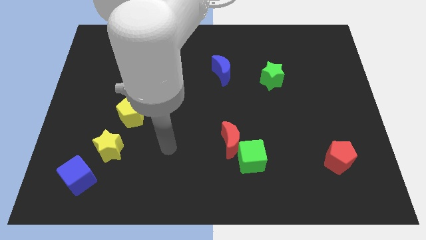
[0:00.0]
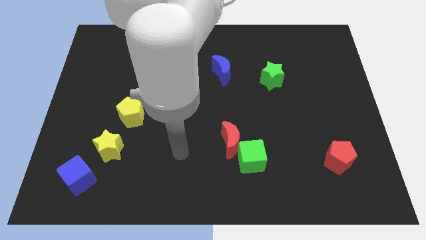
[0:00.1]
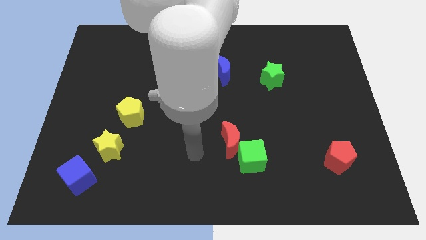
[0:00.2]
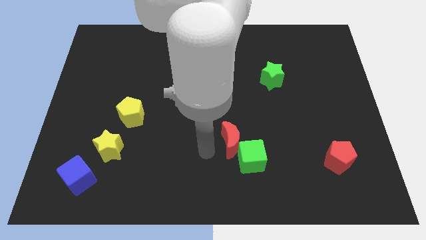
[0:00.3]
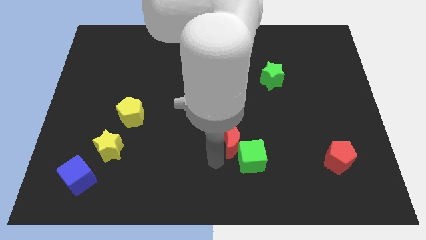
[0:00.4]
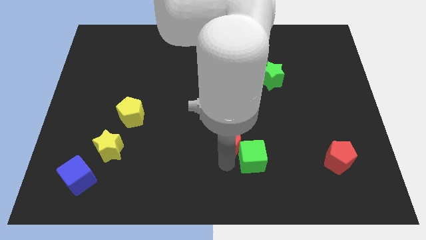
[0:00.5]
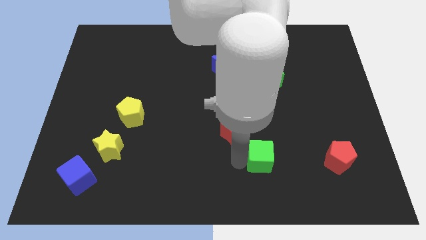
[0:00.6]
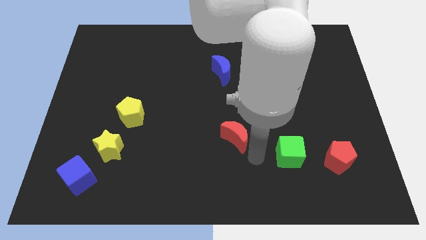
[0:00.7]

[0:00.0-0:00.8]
pull the red moon apart from the green cube

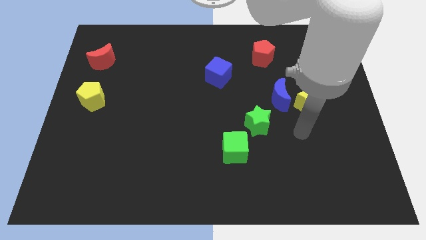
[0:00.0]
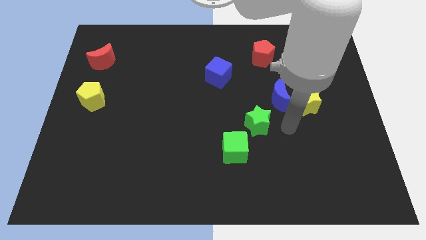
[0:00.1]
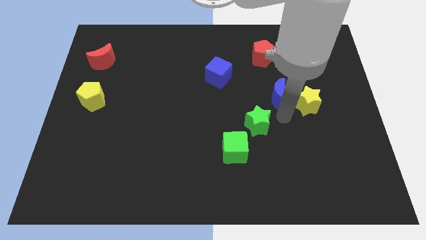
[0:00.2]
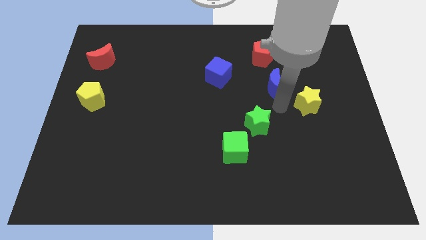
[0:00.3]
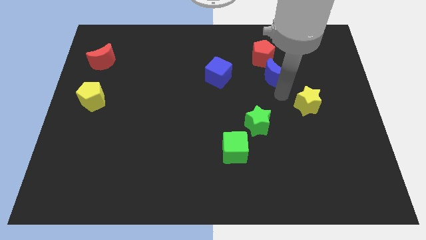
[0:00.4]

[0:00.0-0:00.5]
move the yellow star away from the blue moon

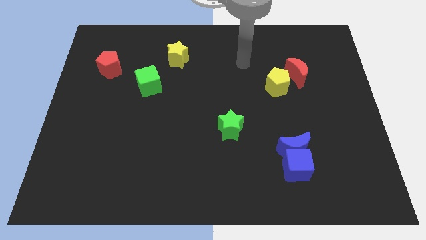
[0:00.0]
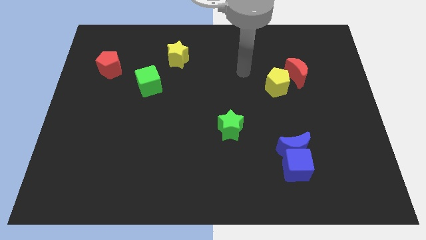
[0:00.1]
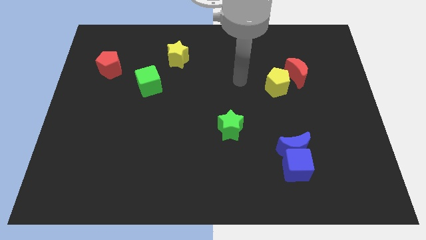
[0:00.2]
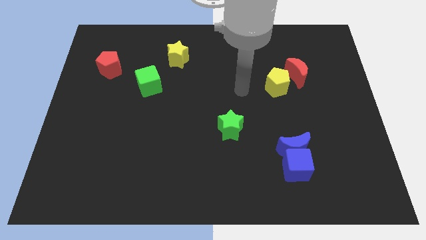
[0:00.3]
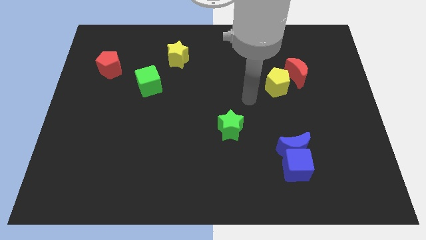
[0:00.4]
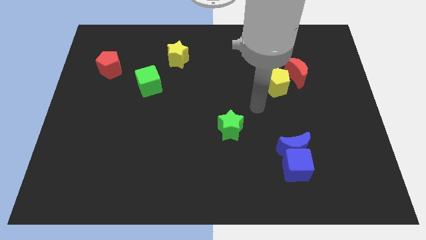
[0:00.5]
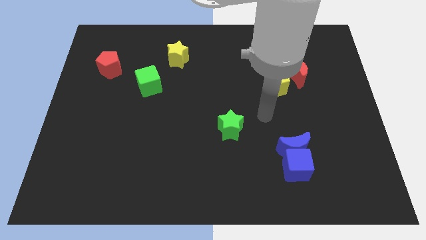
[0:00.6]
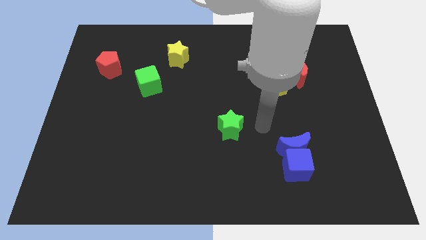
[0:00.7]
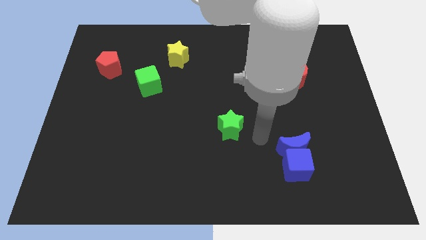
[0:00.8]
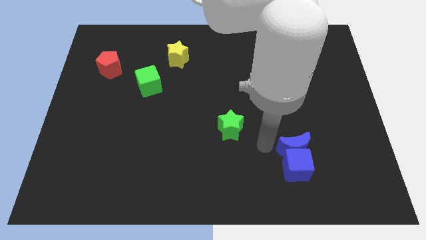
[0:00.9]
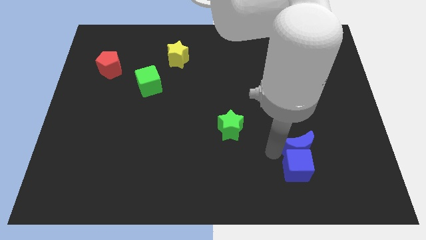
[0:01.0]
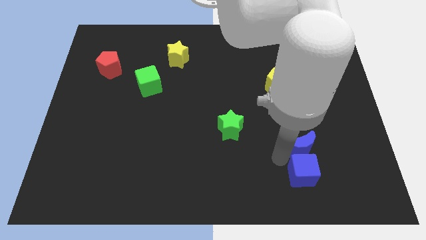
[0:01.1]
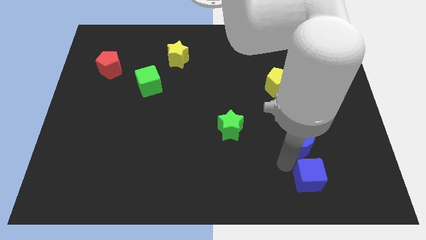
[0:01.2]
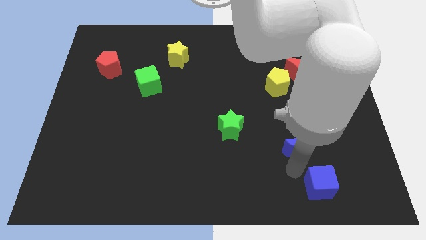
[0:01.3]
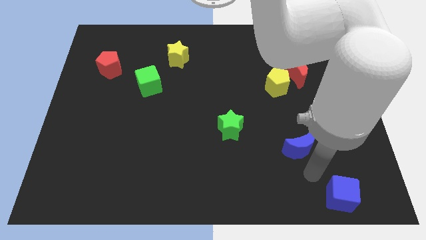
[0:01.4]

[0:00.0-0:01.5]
separate the blue moon from the blue cube

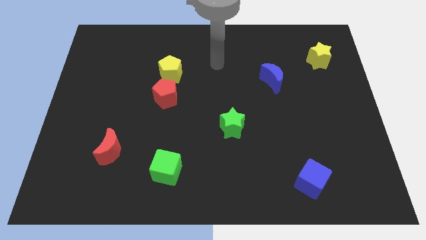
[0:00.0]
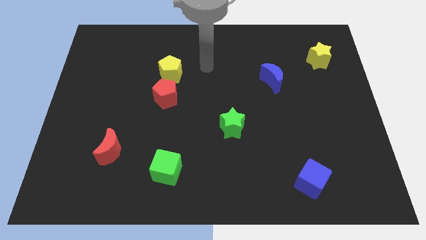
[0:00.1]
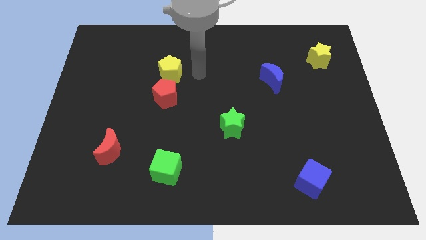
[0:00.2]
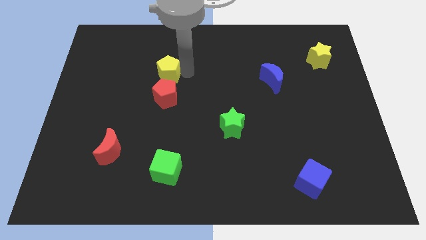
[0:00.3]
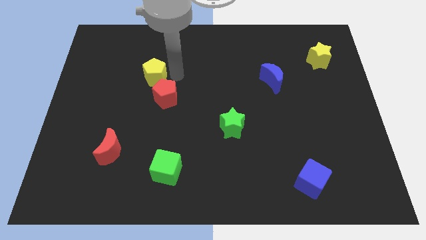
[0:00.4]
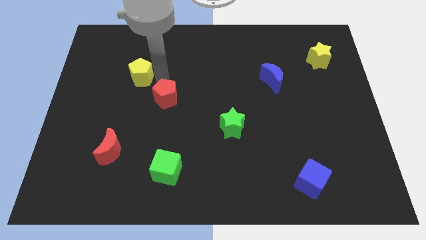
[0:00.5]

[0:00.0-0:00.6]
separate the red pentagon from the yellow pentagon

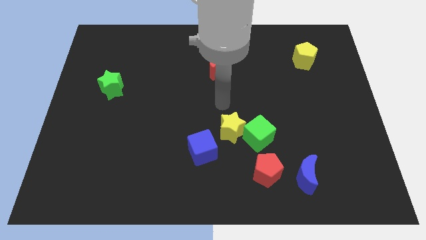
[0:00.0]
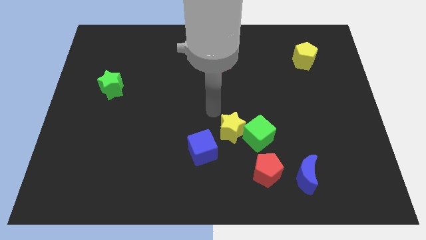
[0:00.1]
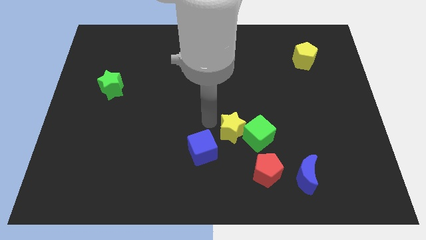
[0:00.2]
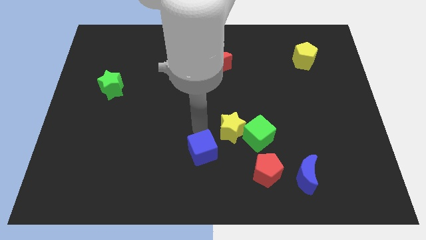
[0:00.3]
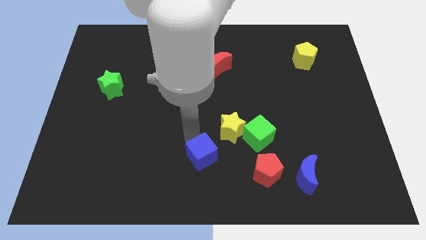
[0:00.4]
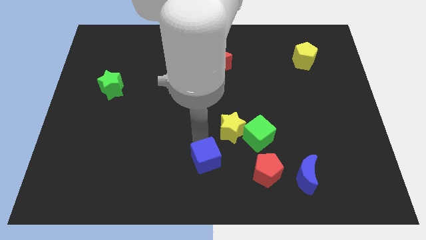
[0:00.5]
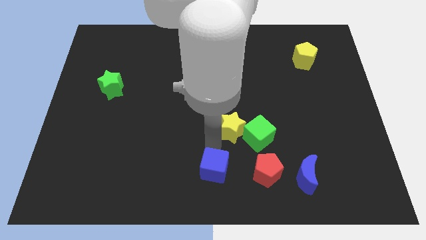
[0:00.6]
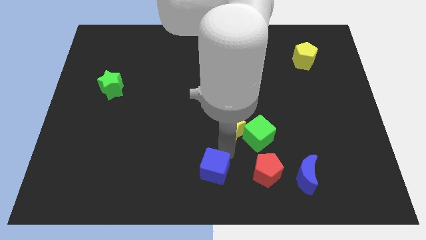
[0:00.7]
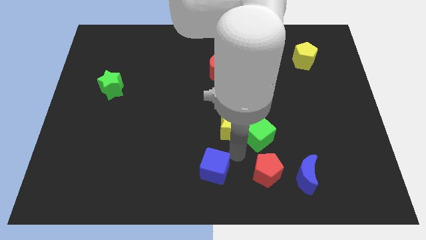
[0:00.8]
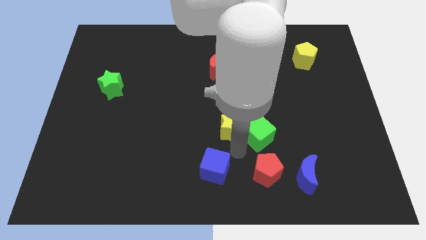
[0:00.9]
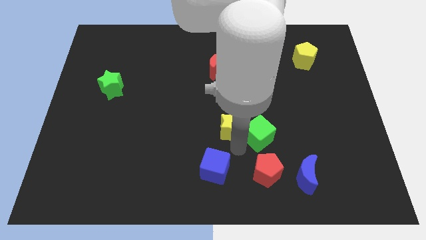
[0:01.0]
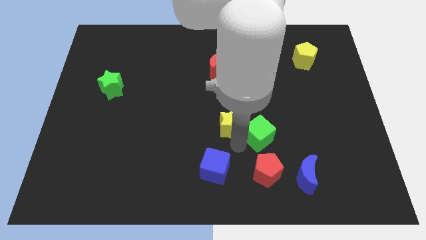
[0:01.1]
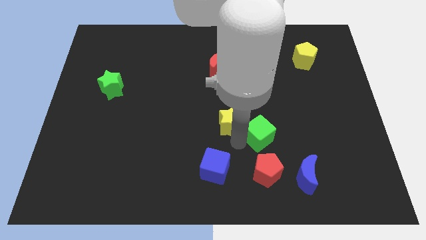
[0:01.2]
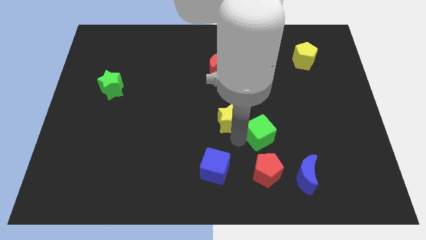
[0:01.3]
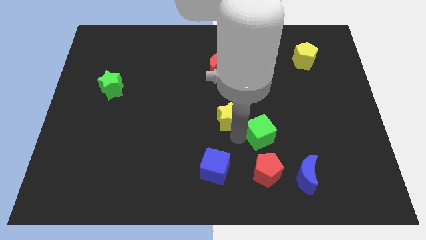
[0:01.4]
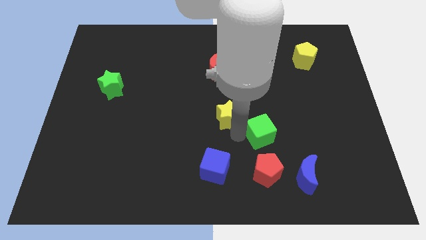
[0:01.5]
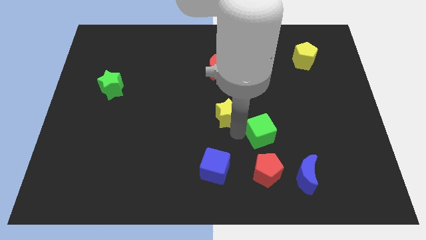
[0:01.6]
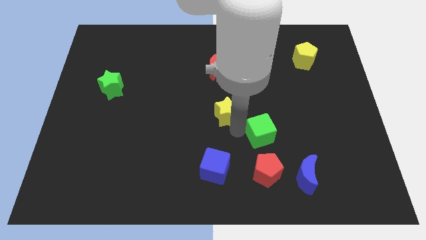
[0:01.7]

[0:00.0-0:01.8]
separate the yellow star from the green cube and blue cube

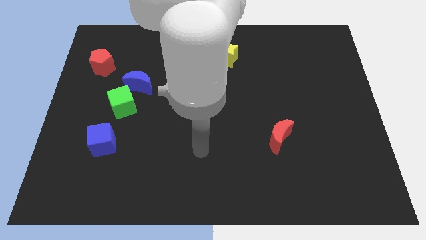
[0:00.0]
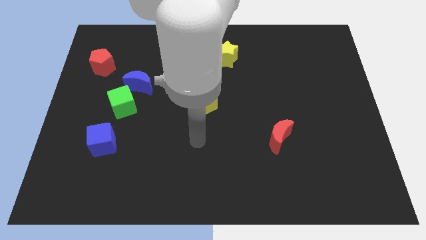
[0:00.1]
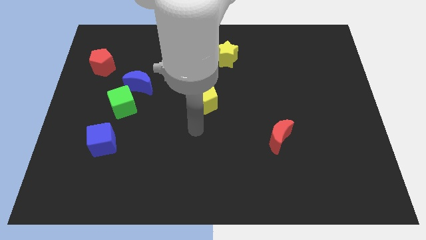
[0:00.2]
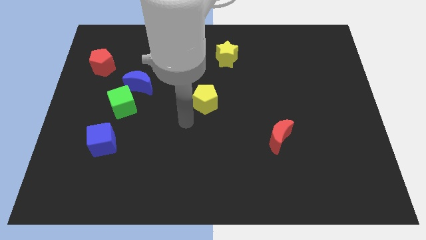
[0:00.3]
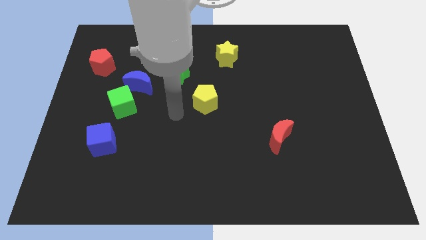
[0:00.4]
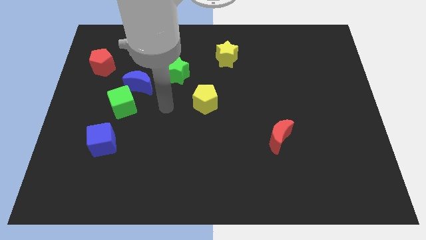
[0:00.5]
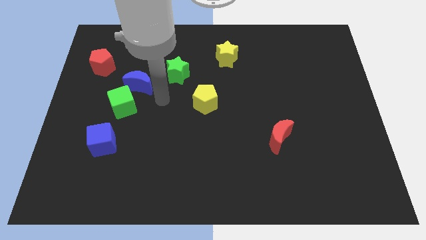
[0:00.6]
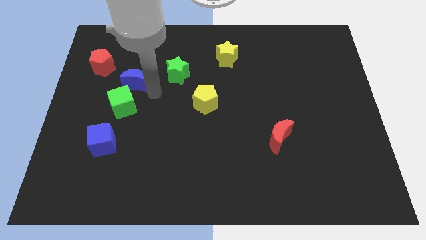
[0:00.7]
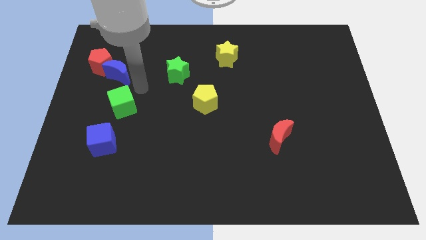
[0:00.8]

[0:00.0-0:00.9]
separate the green cube from the blue moon

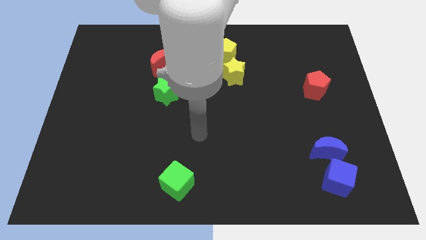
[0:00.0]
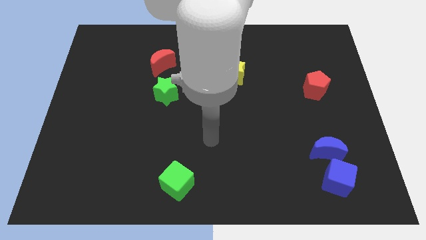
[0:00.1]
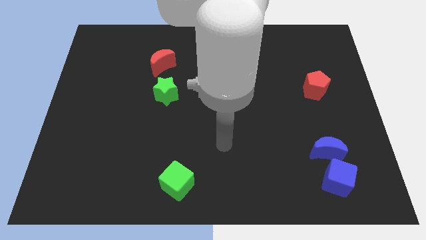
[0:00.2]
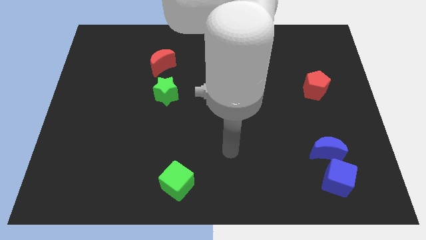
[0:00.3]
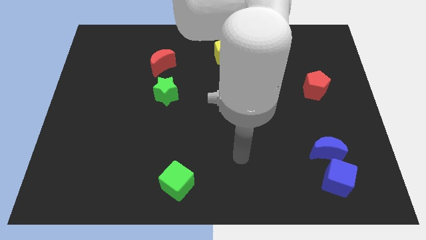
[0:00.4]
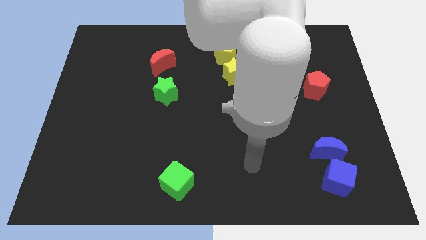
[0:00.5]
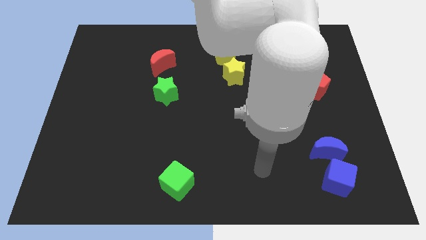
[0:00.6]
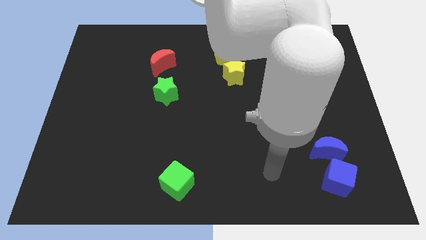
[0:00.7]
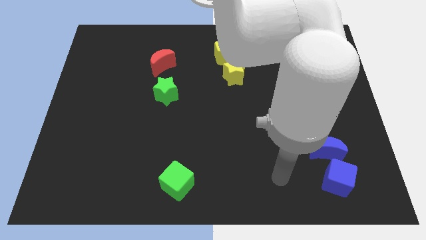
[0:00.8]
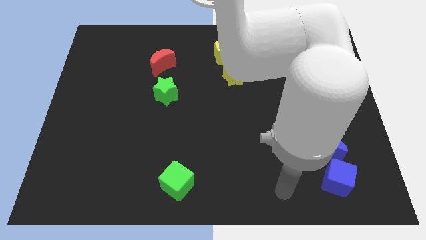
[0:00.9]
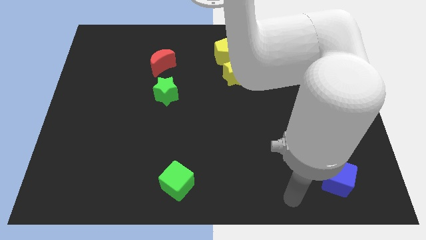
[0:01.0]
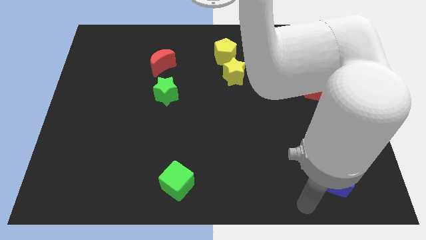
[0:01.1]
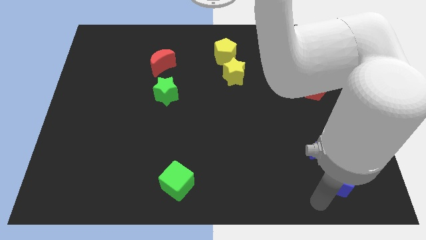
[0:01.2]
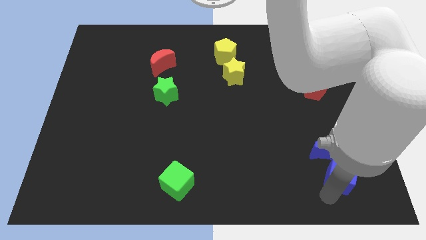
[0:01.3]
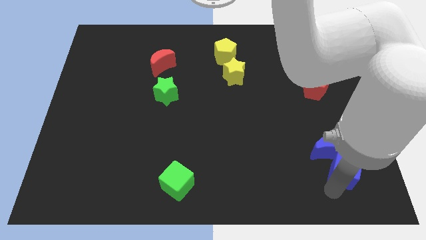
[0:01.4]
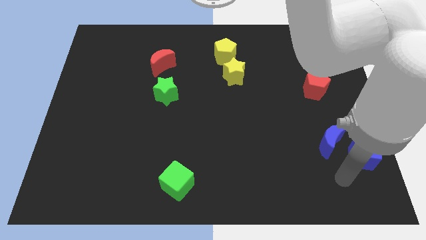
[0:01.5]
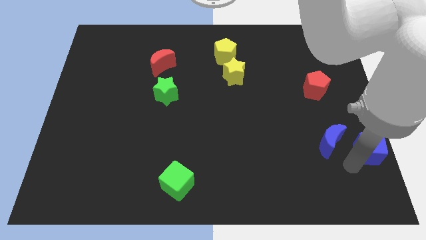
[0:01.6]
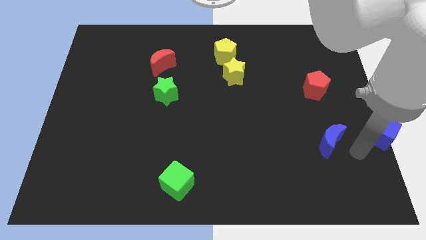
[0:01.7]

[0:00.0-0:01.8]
move the blue moon away from the blue cube

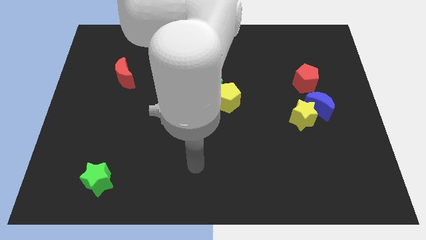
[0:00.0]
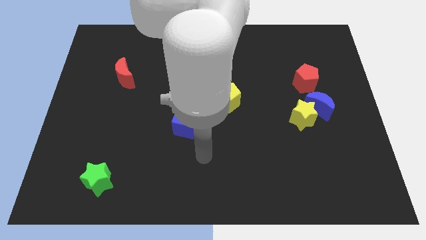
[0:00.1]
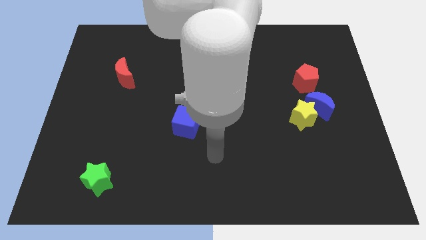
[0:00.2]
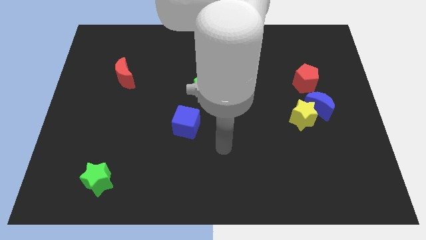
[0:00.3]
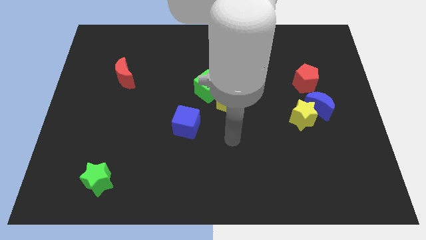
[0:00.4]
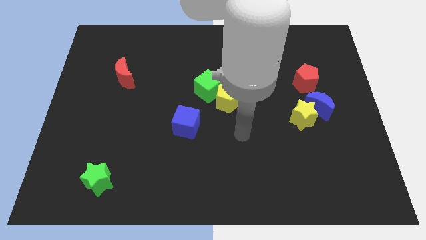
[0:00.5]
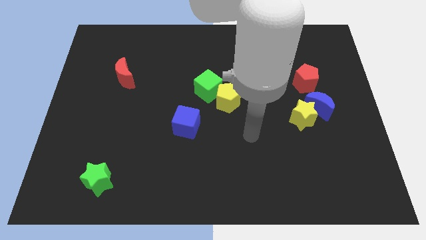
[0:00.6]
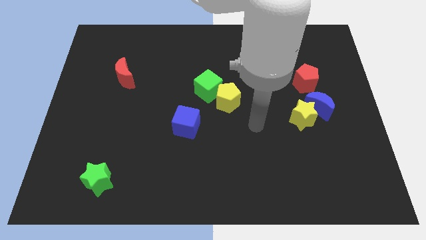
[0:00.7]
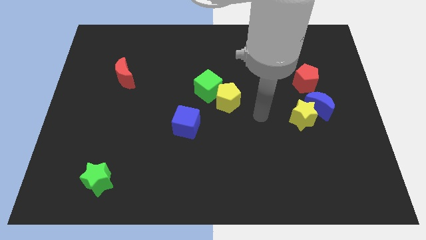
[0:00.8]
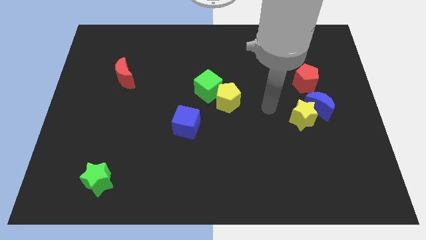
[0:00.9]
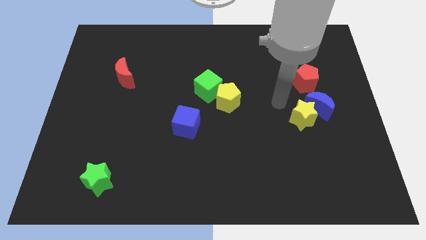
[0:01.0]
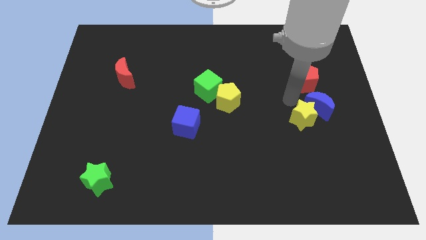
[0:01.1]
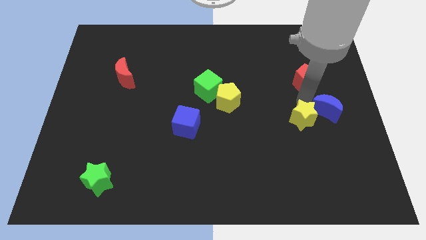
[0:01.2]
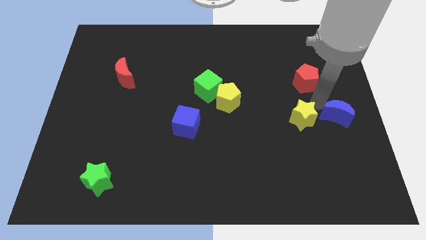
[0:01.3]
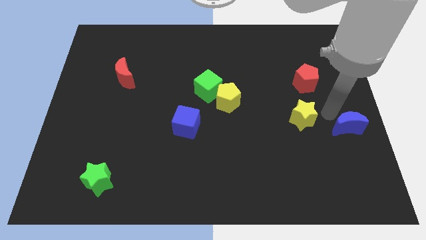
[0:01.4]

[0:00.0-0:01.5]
pull the yellow star apart from the blue moon
